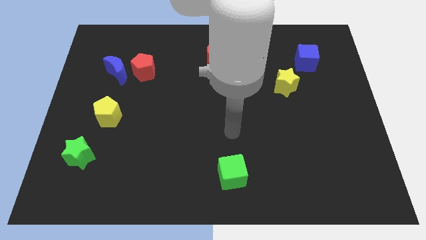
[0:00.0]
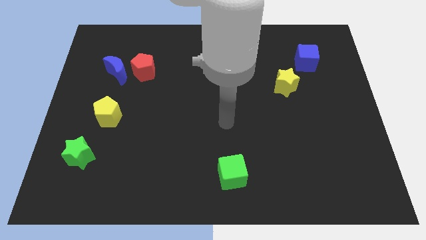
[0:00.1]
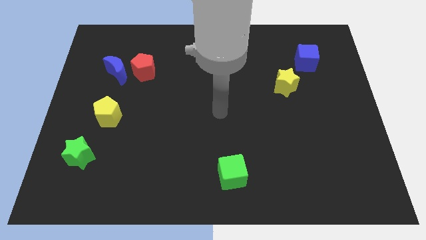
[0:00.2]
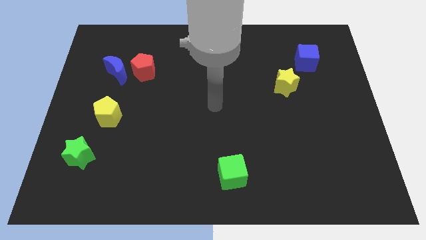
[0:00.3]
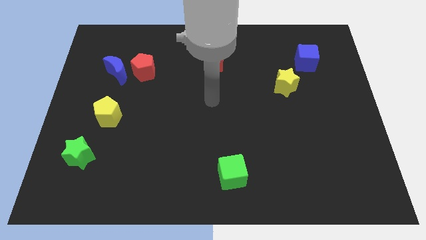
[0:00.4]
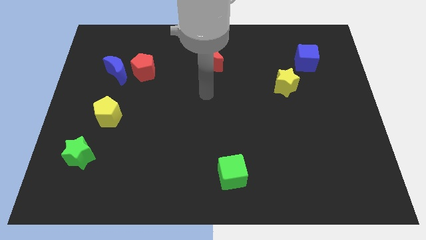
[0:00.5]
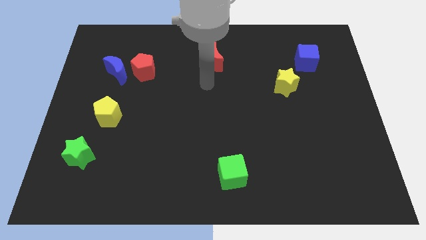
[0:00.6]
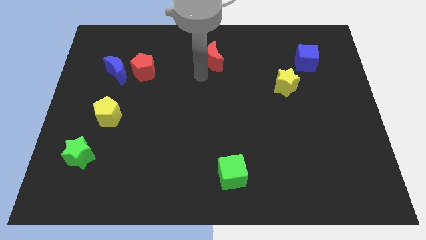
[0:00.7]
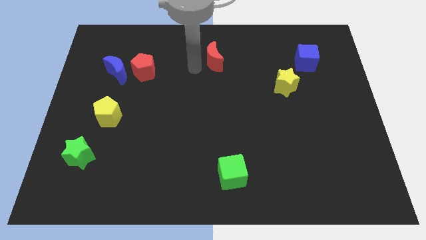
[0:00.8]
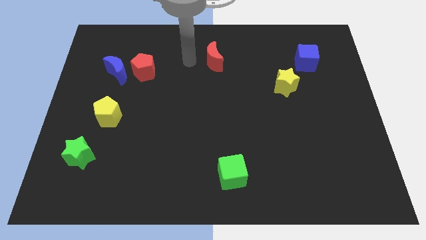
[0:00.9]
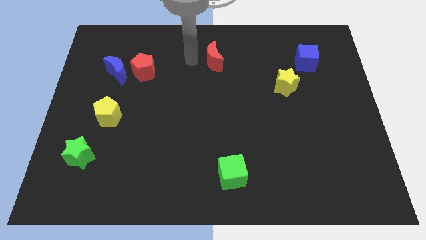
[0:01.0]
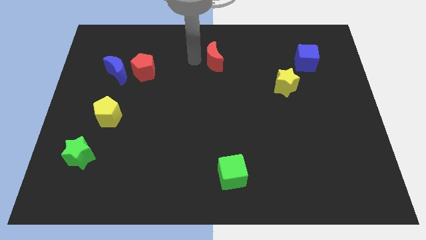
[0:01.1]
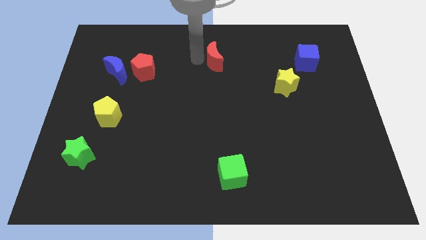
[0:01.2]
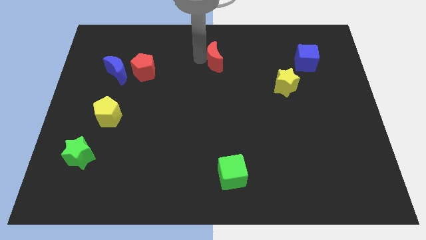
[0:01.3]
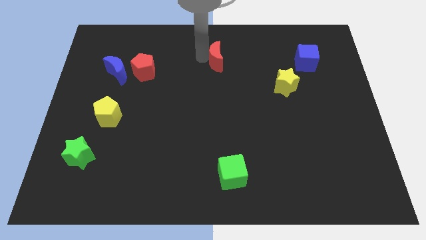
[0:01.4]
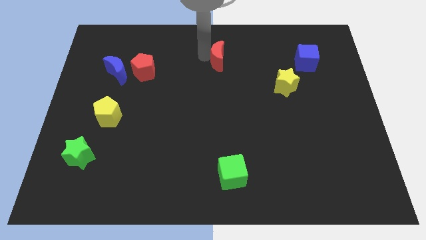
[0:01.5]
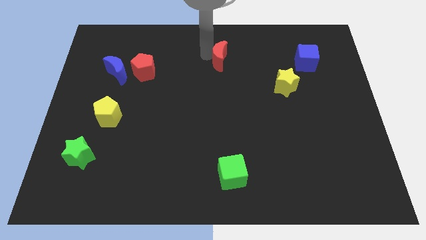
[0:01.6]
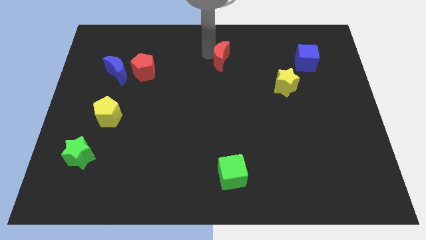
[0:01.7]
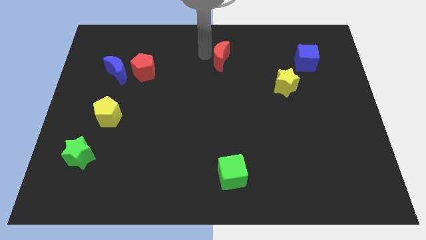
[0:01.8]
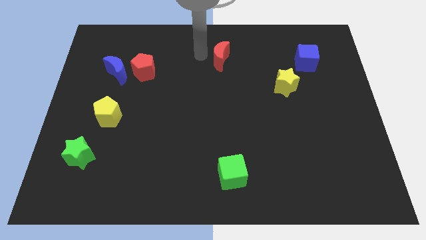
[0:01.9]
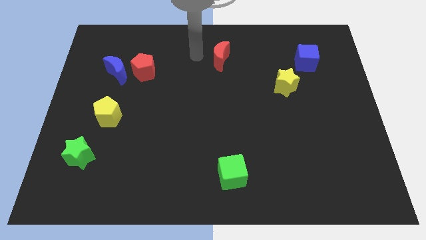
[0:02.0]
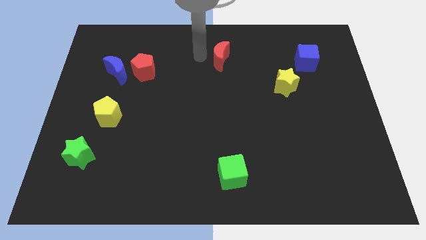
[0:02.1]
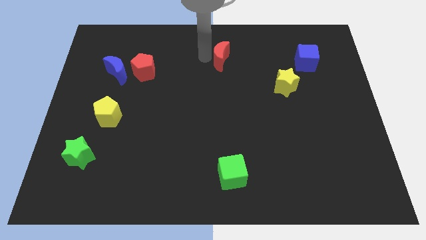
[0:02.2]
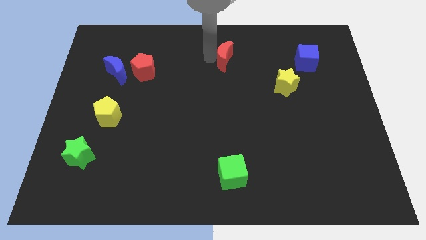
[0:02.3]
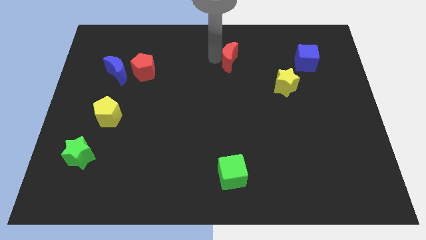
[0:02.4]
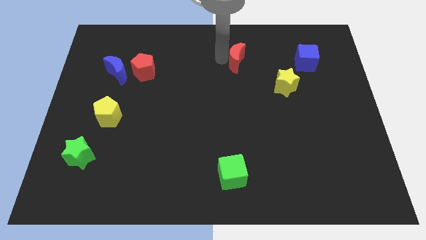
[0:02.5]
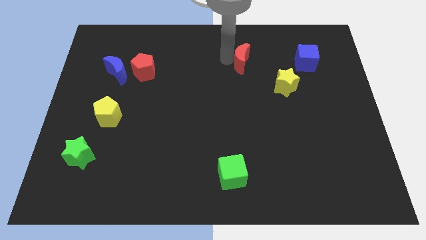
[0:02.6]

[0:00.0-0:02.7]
push the red moon slightly to the right

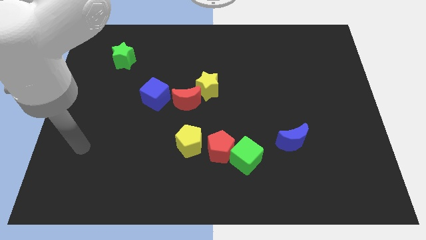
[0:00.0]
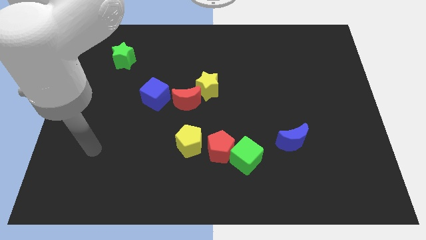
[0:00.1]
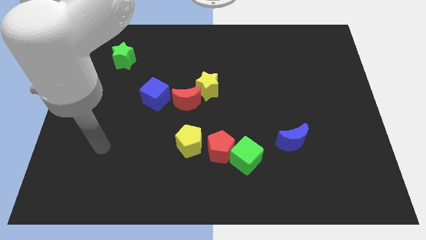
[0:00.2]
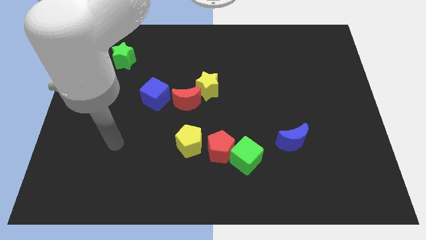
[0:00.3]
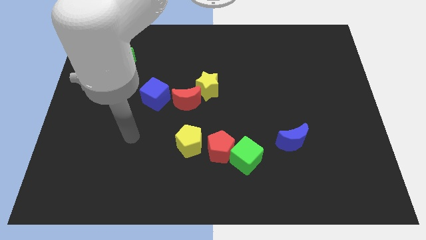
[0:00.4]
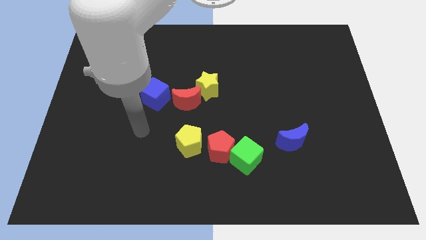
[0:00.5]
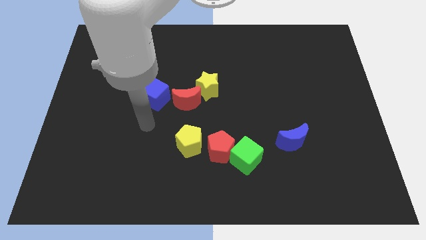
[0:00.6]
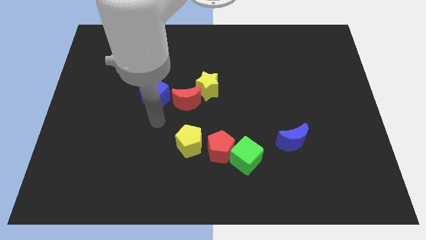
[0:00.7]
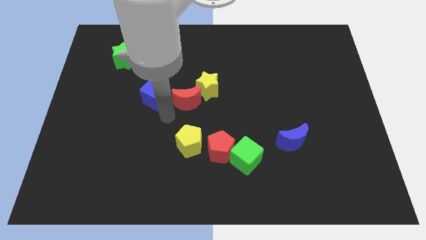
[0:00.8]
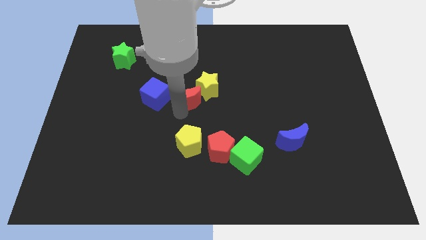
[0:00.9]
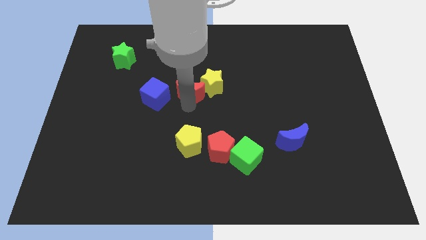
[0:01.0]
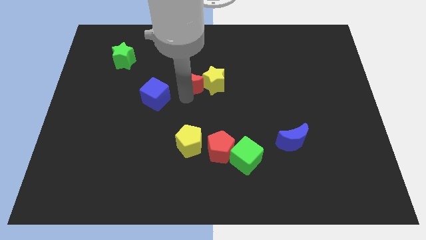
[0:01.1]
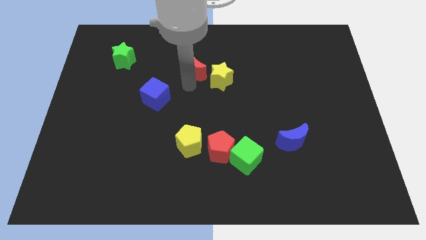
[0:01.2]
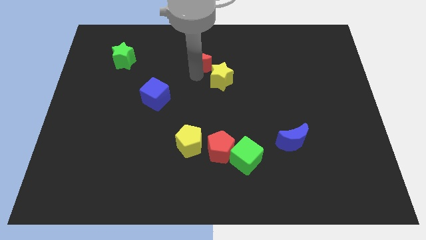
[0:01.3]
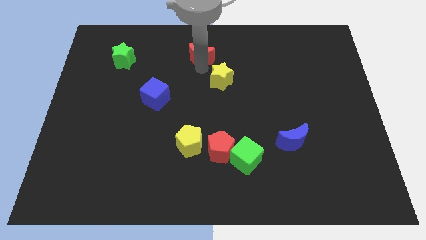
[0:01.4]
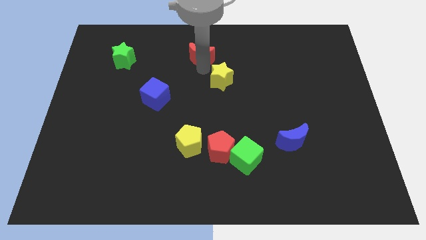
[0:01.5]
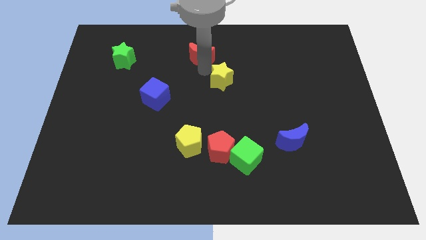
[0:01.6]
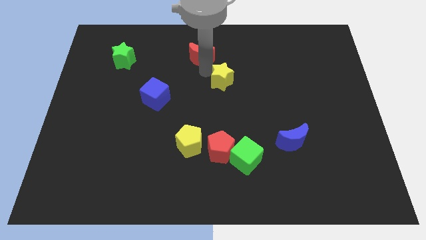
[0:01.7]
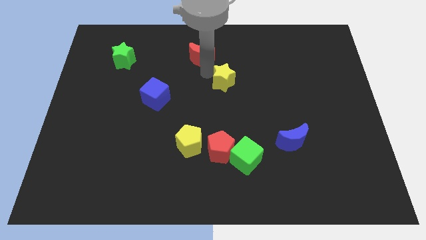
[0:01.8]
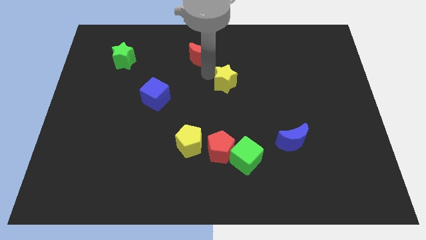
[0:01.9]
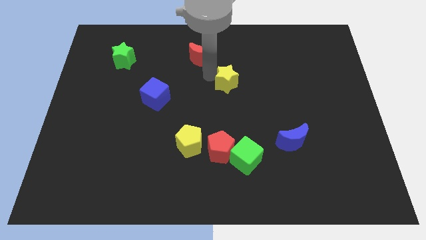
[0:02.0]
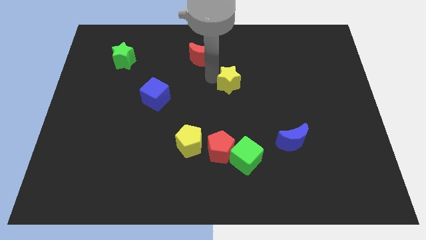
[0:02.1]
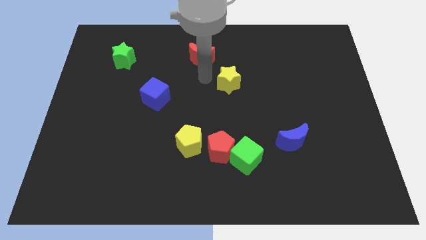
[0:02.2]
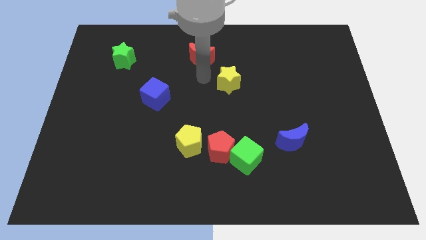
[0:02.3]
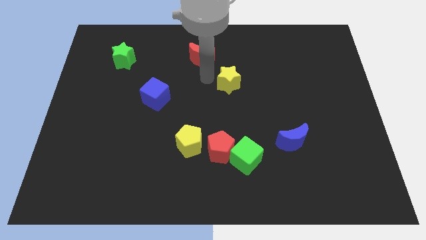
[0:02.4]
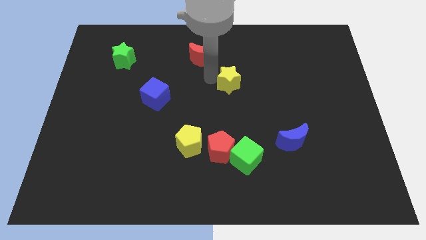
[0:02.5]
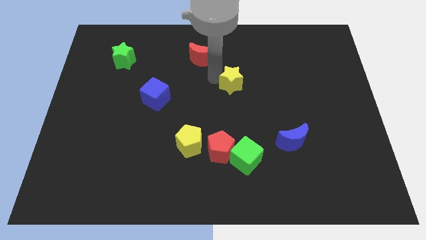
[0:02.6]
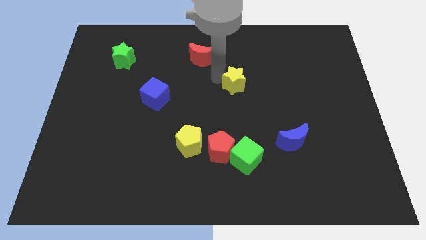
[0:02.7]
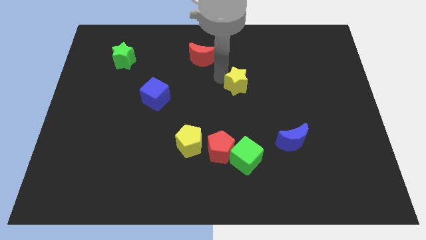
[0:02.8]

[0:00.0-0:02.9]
slide the yellow star right a little

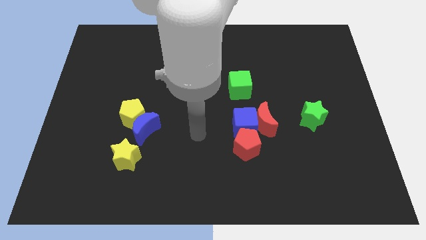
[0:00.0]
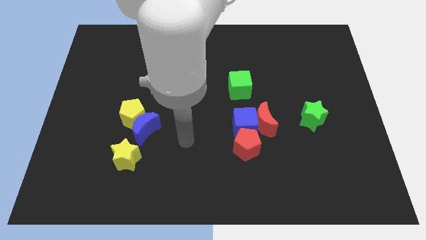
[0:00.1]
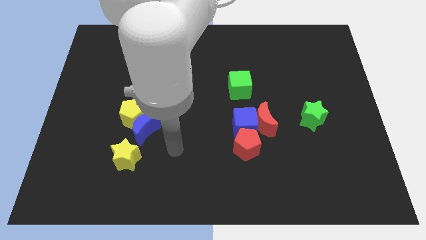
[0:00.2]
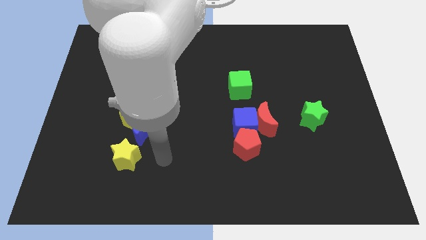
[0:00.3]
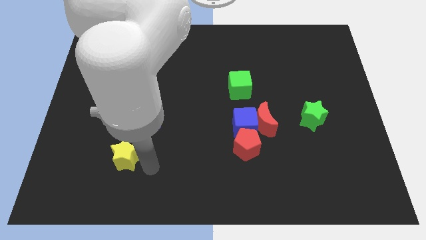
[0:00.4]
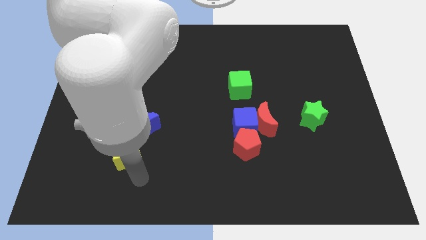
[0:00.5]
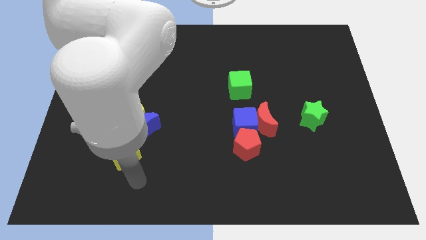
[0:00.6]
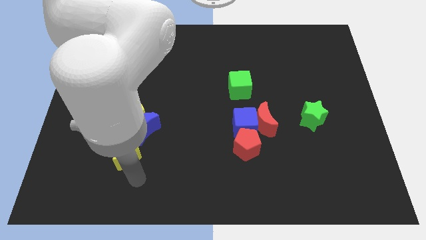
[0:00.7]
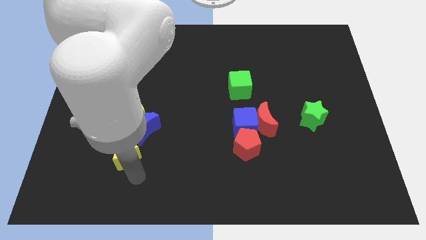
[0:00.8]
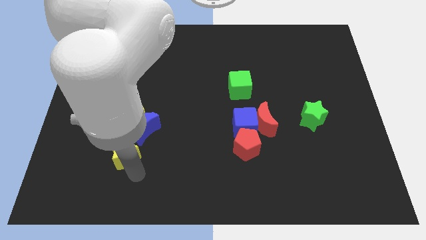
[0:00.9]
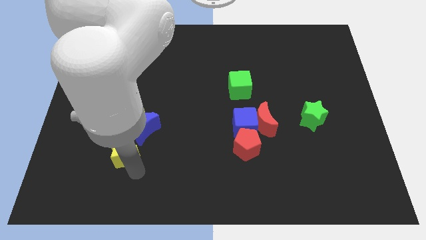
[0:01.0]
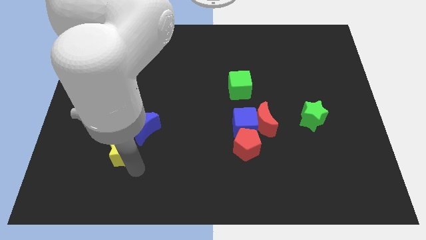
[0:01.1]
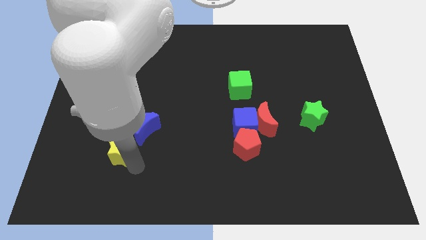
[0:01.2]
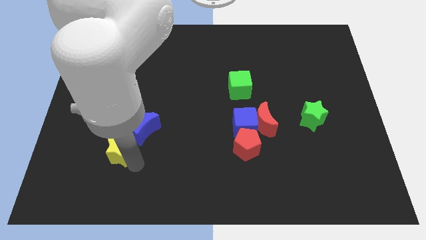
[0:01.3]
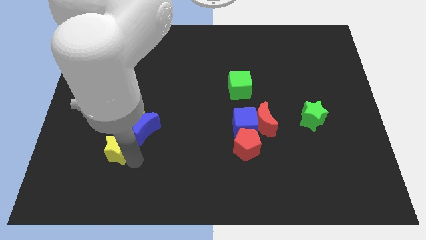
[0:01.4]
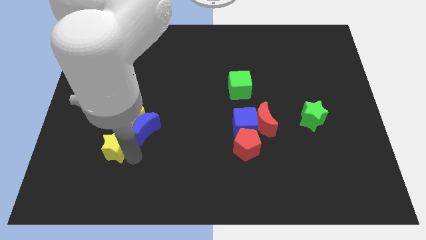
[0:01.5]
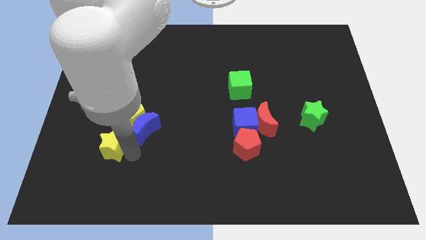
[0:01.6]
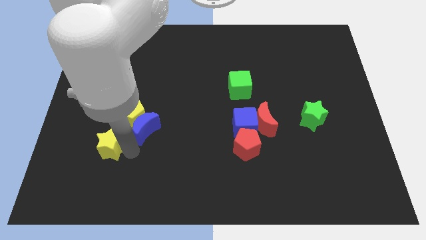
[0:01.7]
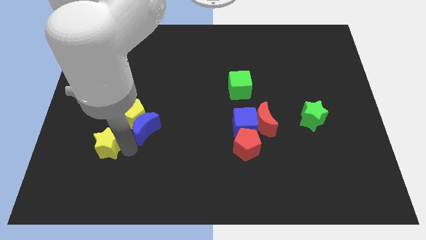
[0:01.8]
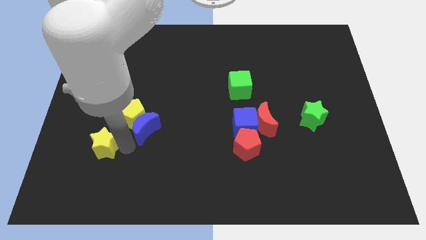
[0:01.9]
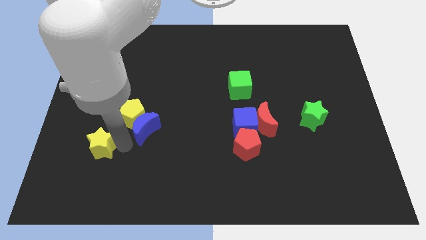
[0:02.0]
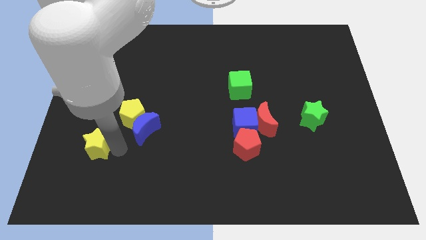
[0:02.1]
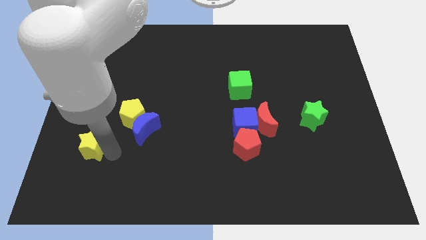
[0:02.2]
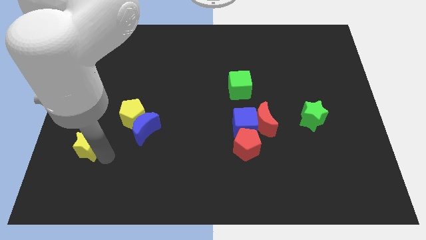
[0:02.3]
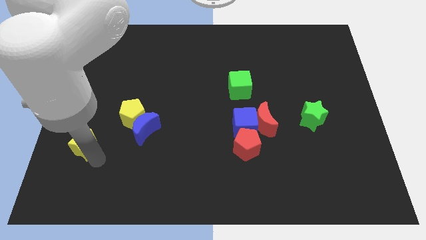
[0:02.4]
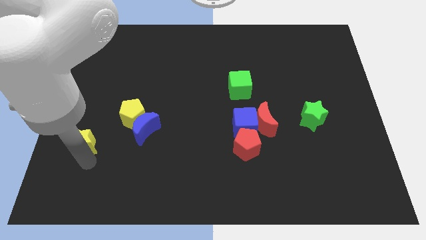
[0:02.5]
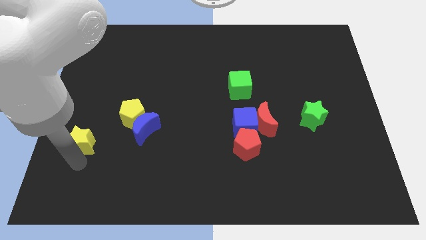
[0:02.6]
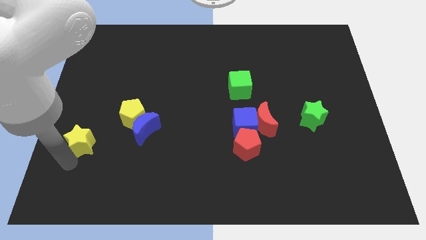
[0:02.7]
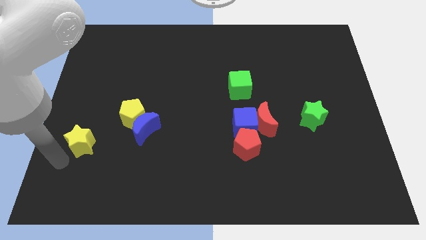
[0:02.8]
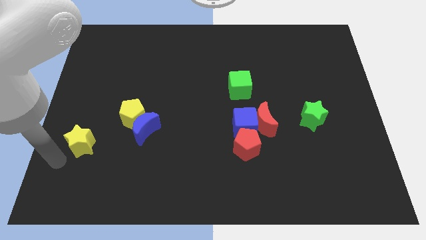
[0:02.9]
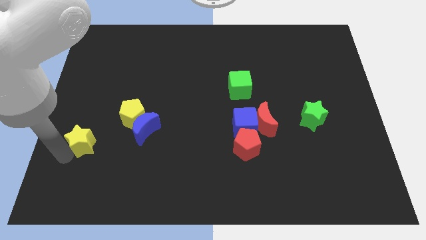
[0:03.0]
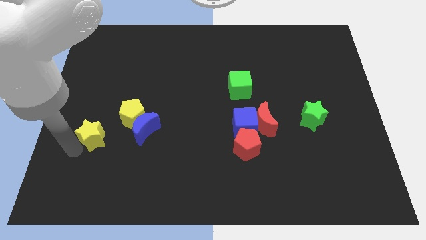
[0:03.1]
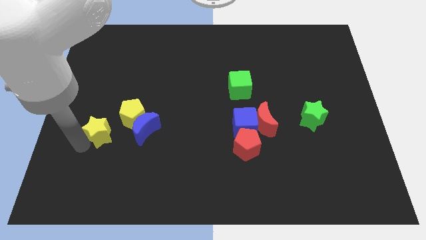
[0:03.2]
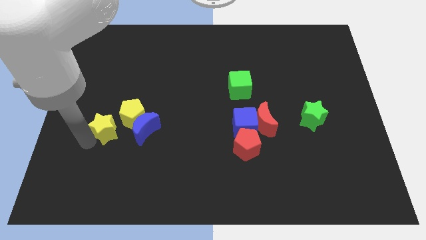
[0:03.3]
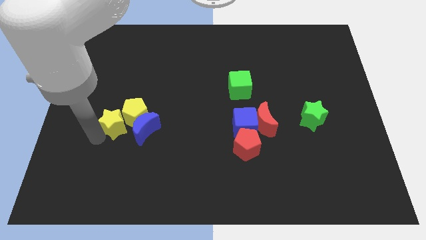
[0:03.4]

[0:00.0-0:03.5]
slide the yellow star up a little
